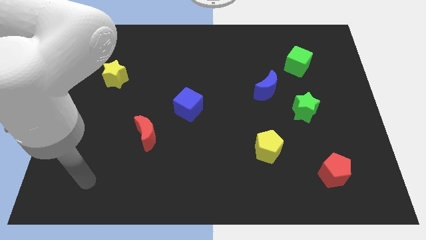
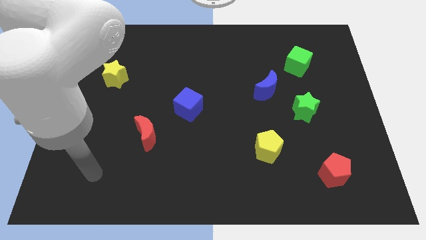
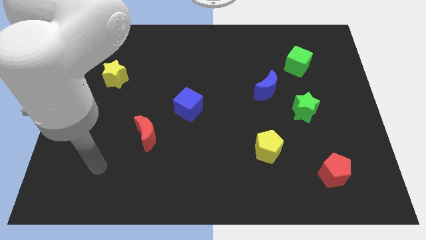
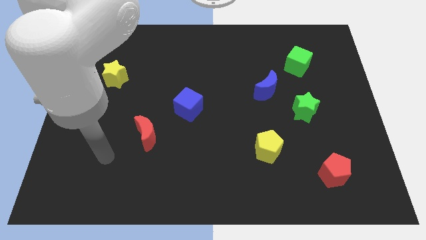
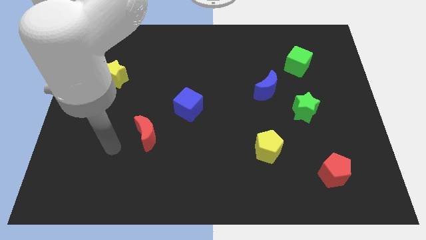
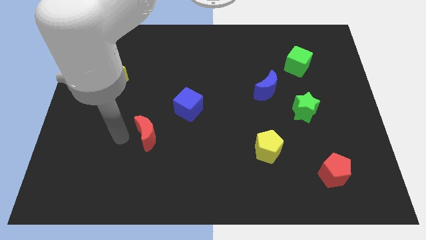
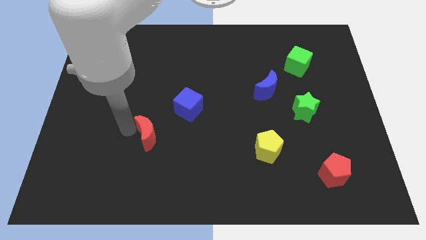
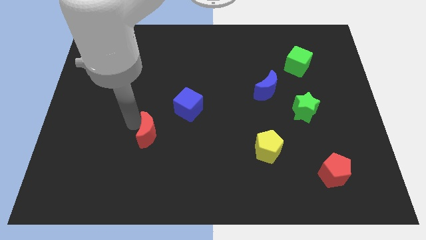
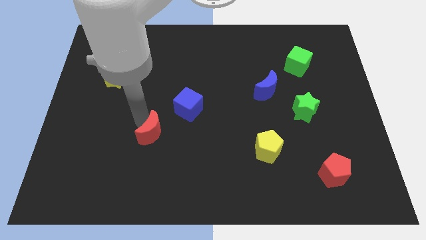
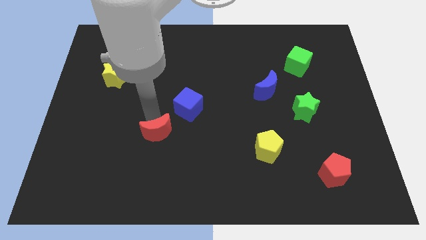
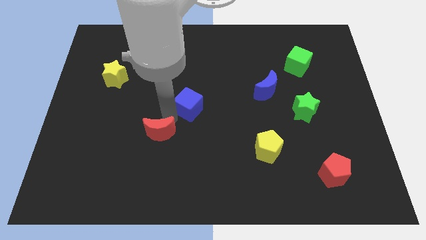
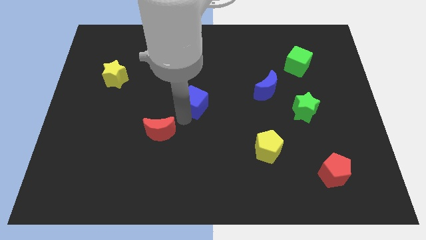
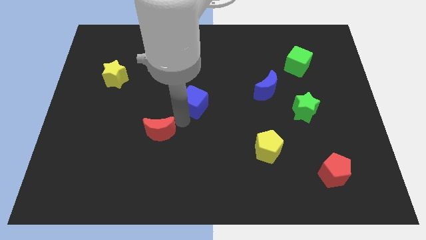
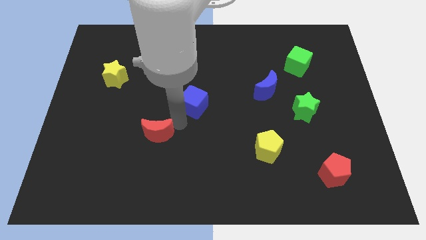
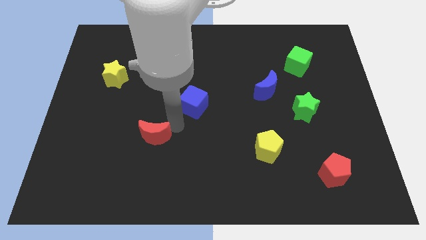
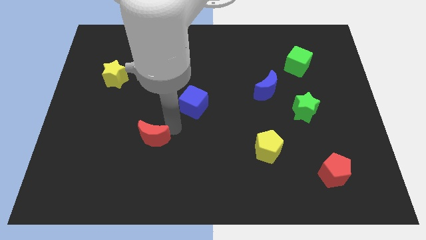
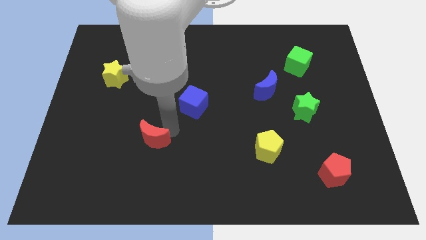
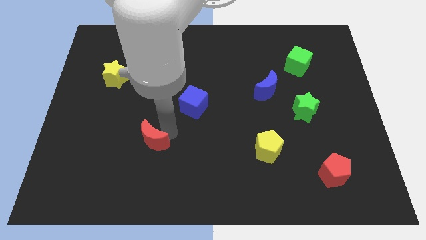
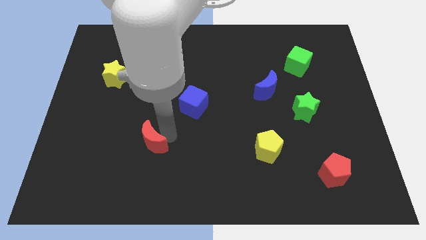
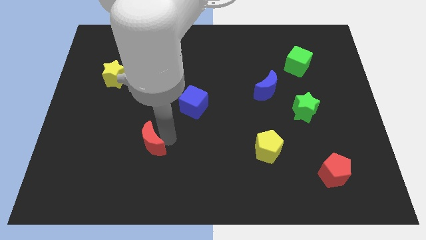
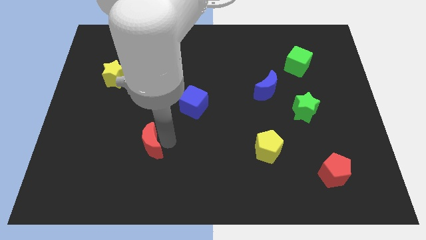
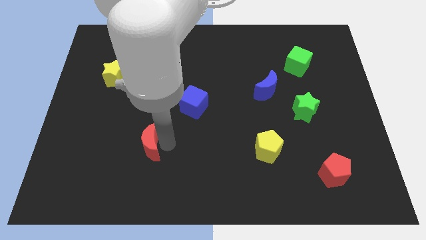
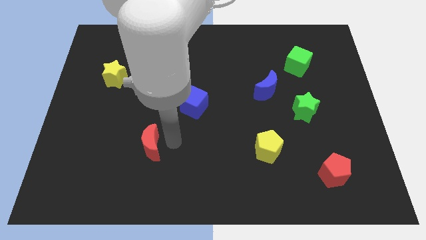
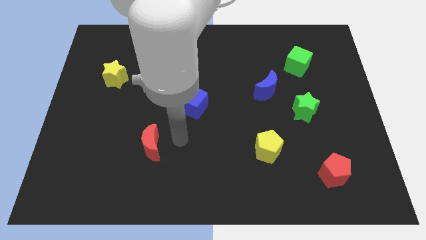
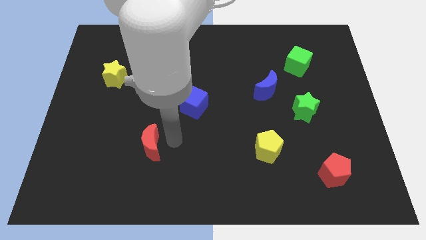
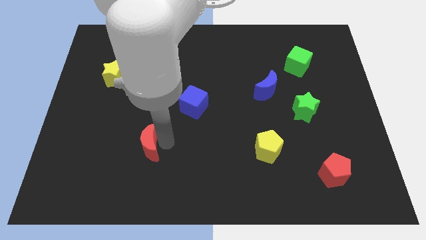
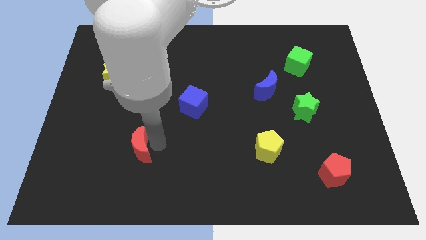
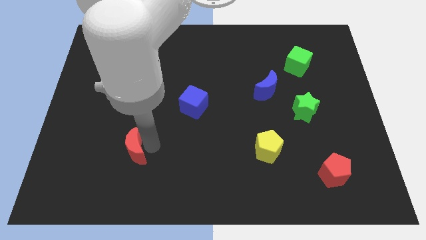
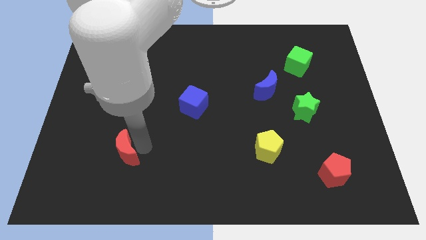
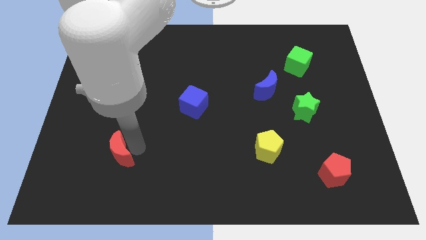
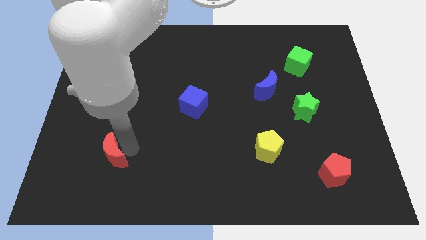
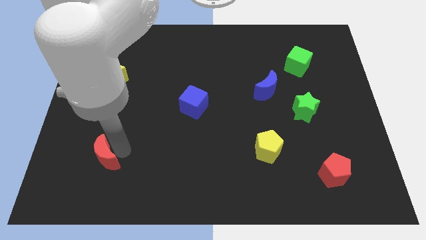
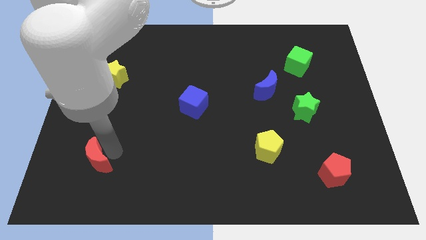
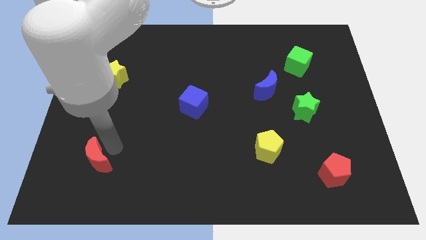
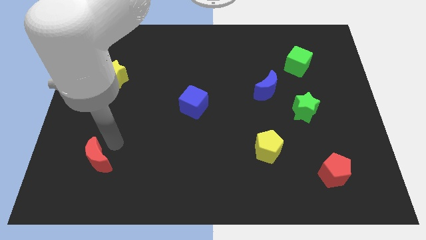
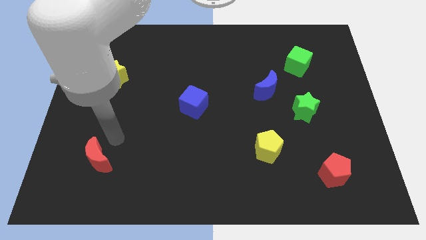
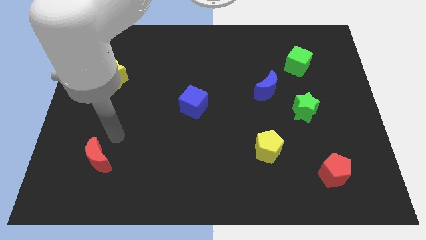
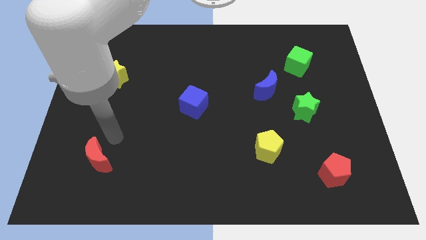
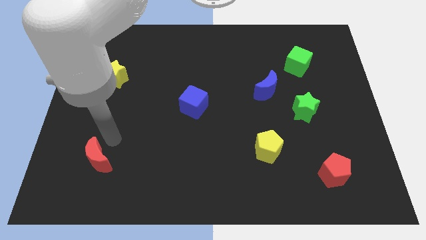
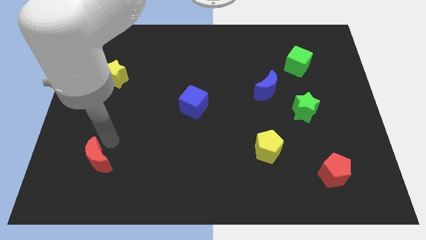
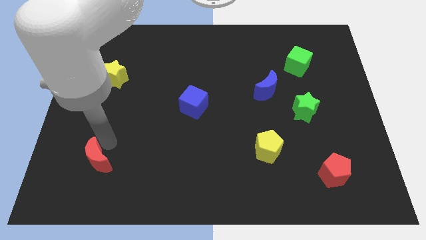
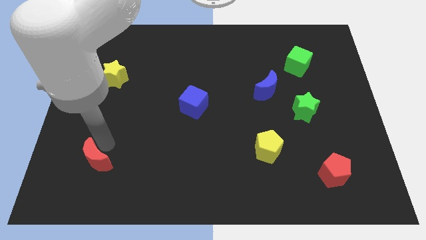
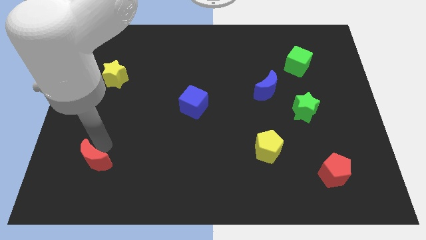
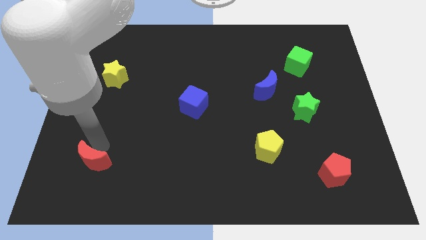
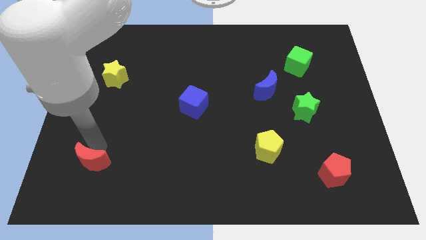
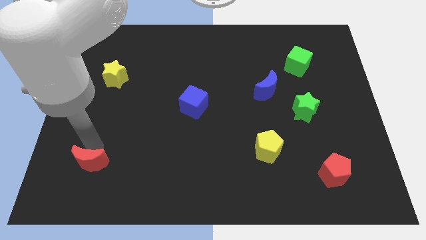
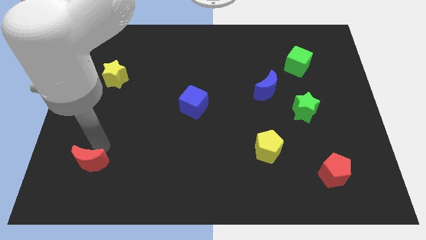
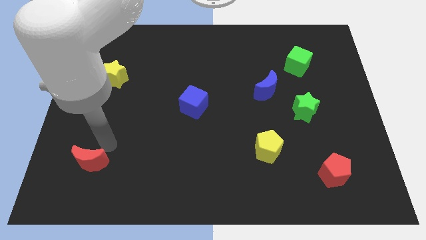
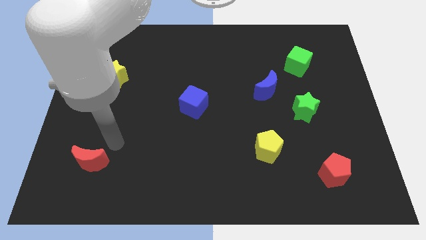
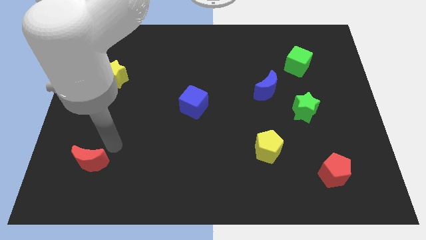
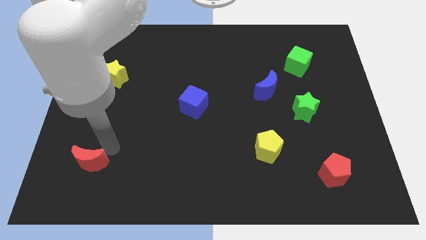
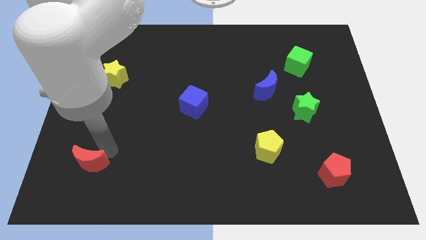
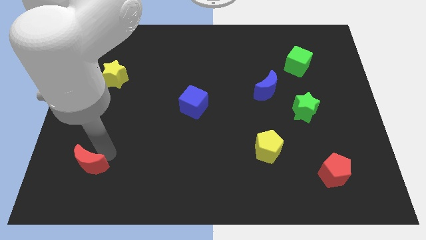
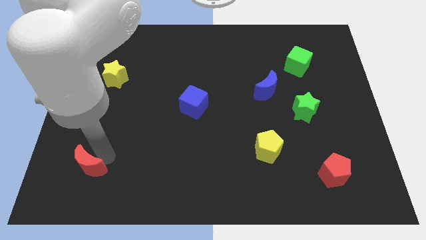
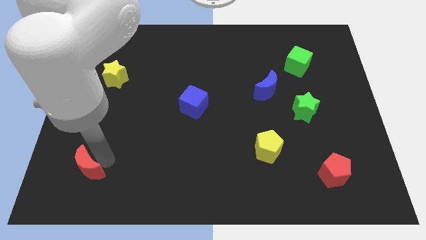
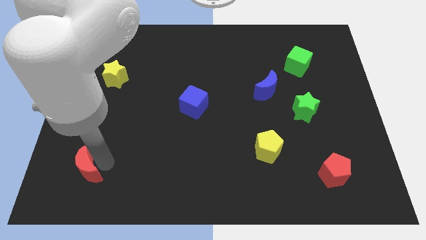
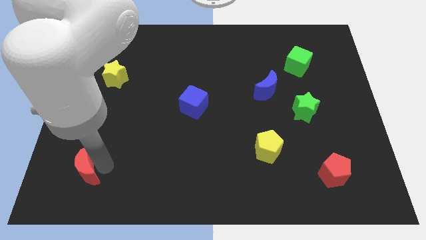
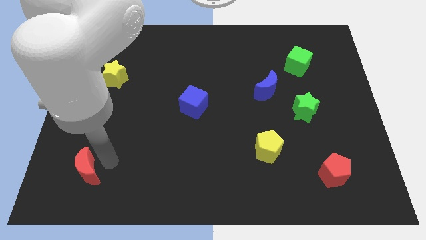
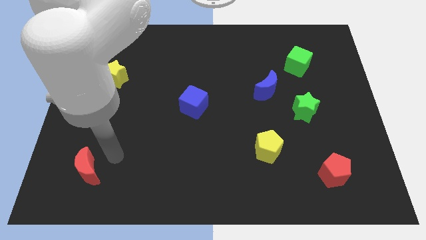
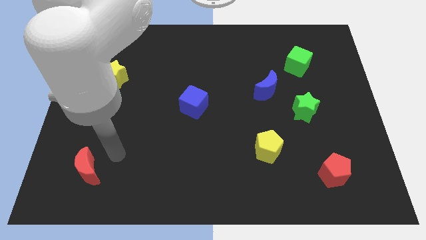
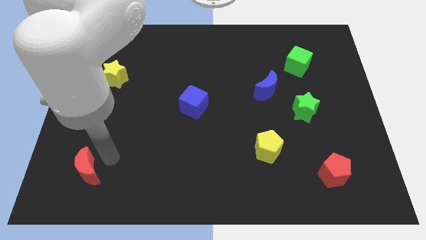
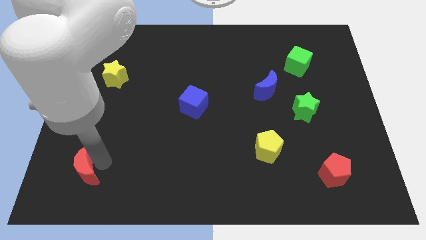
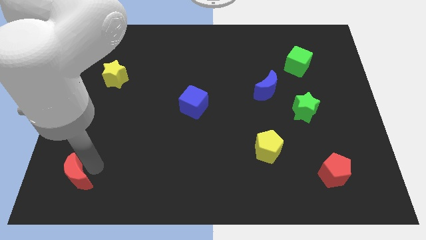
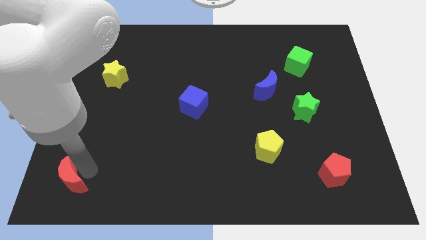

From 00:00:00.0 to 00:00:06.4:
move the red moon to the bottom left corner

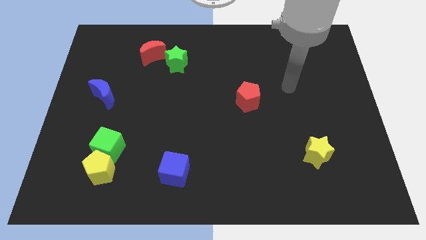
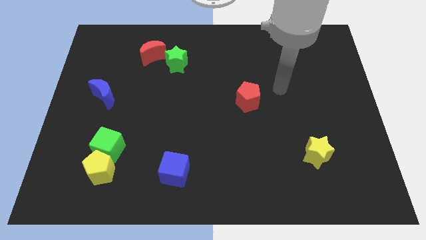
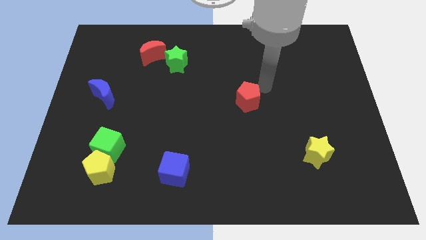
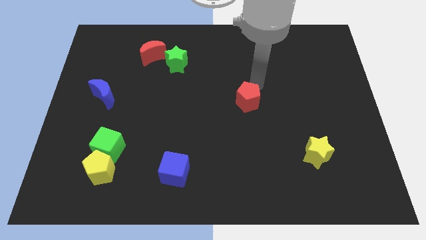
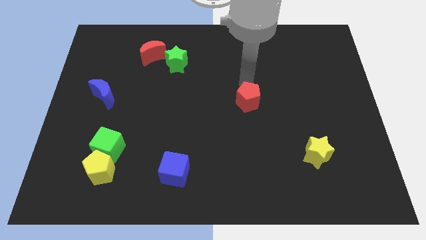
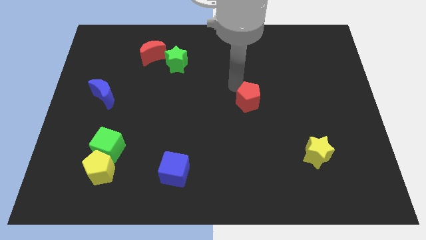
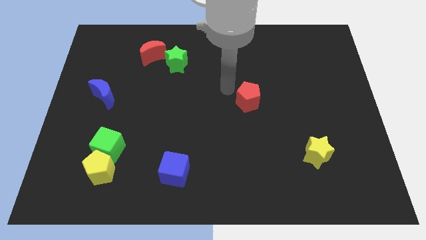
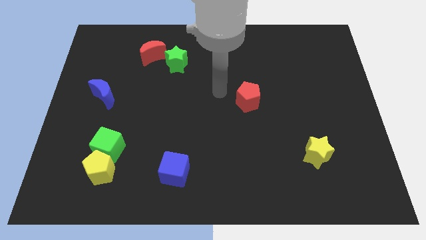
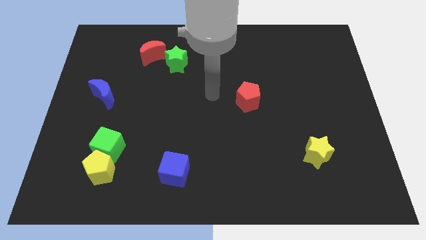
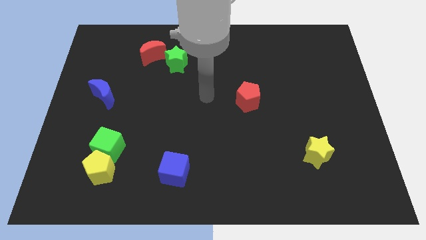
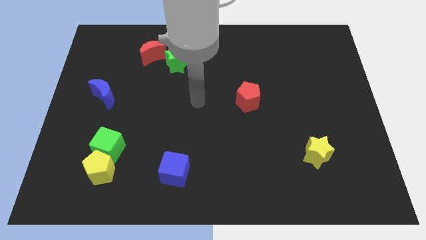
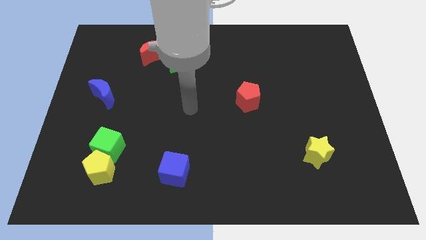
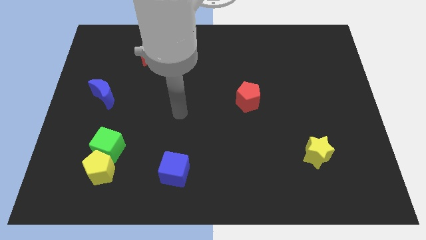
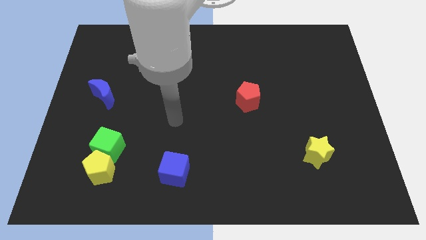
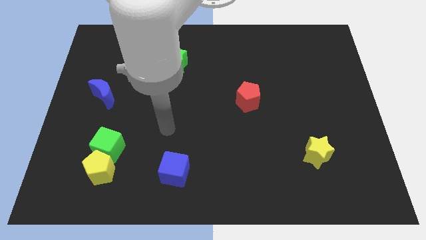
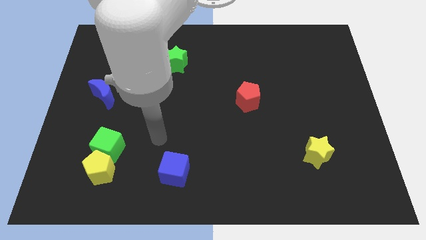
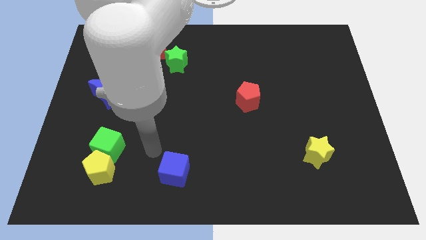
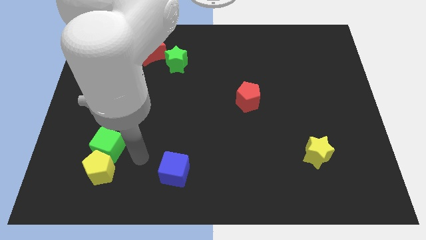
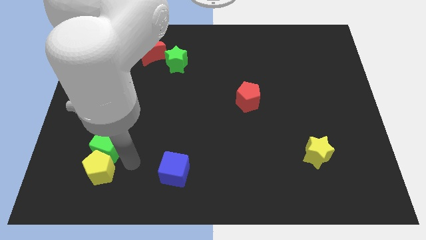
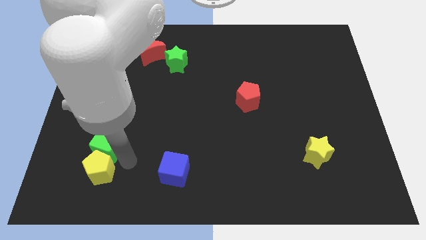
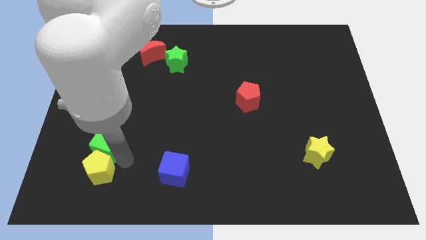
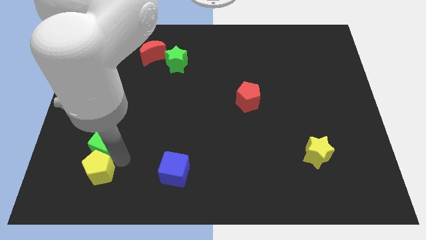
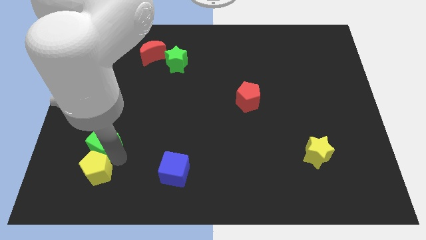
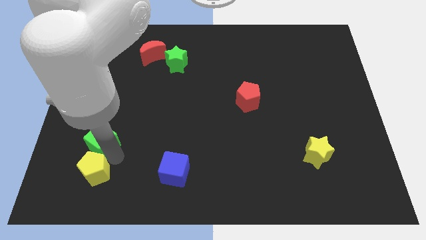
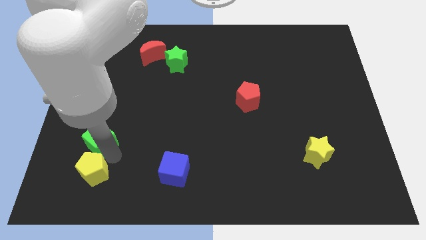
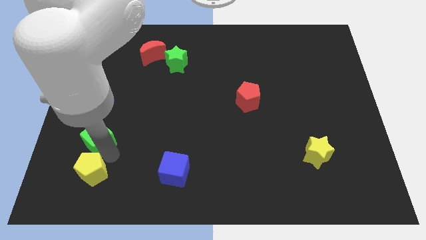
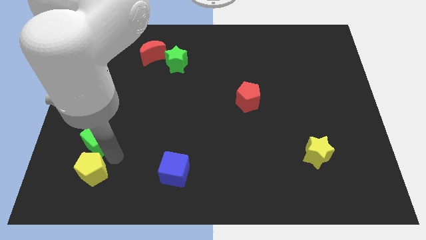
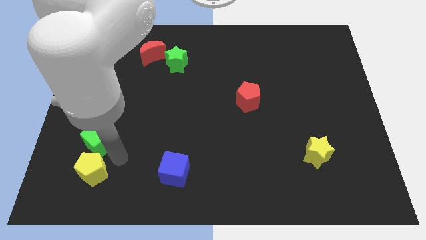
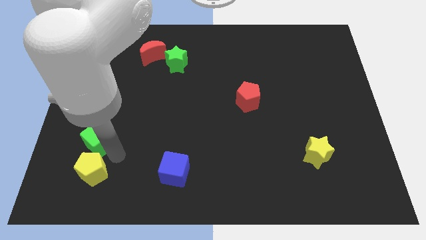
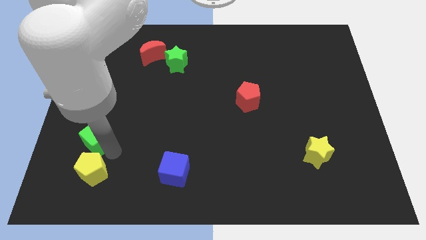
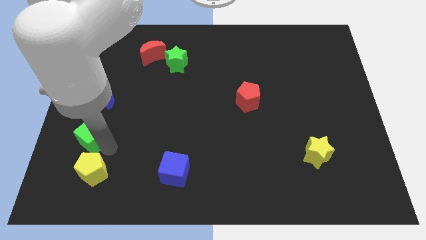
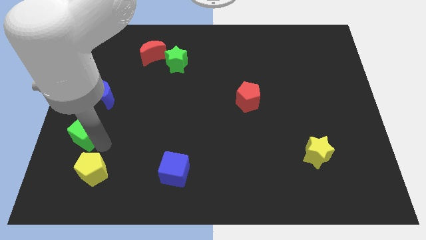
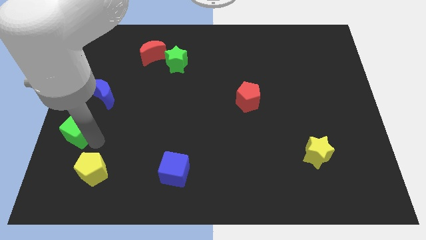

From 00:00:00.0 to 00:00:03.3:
put the green cube to the left side of the board
